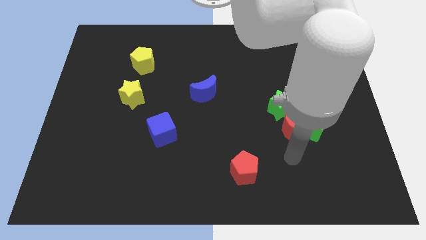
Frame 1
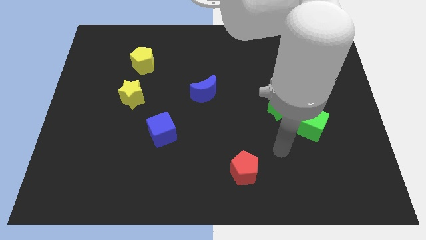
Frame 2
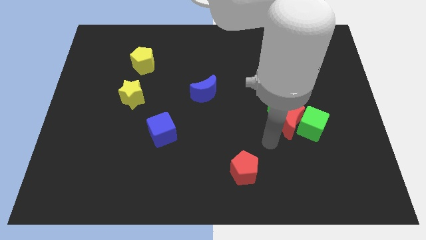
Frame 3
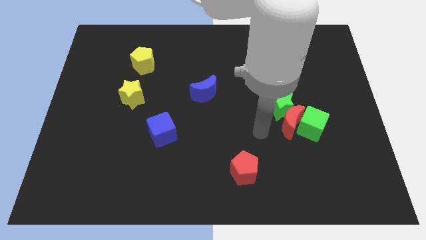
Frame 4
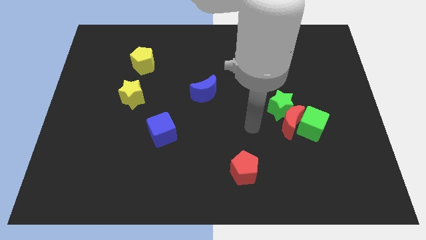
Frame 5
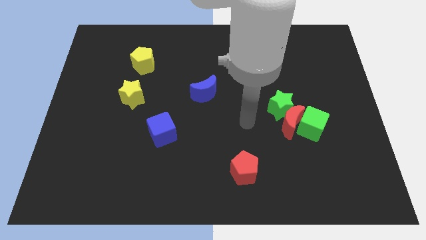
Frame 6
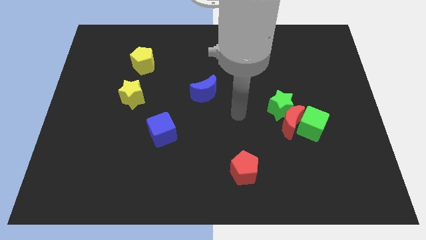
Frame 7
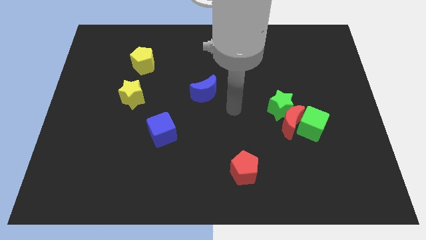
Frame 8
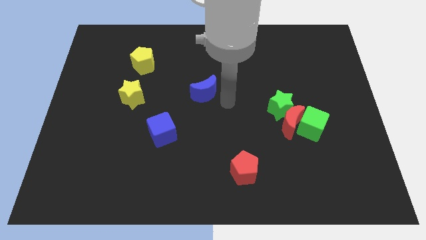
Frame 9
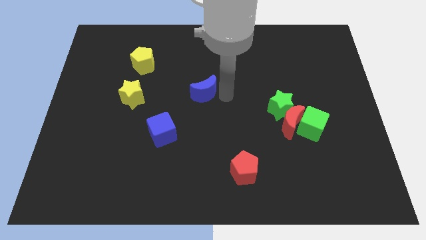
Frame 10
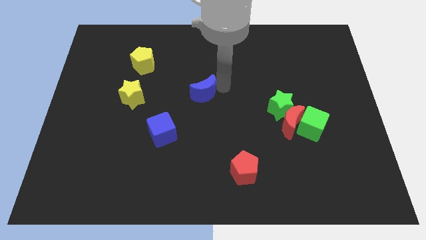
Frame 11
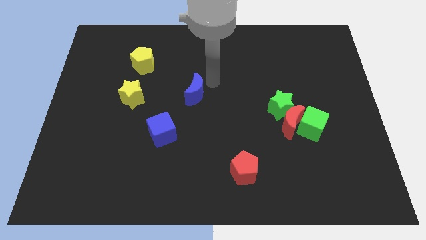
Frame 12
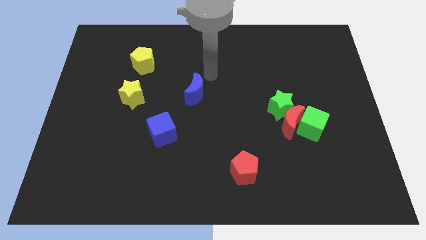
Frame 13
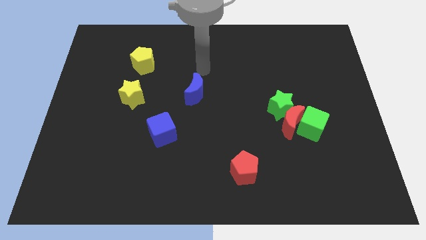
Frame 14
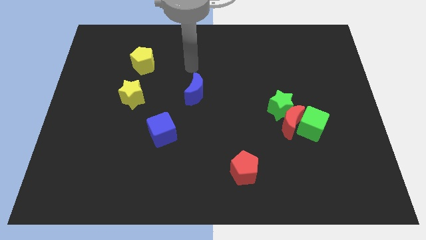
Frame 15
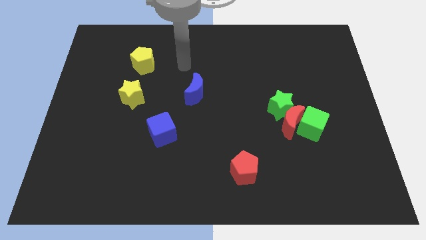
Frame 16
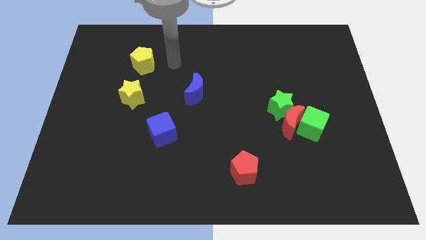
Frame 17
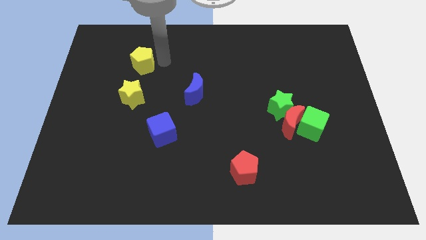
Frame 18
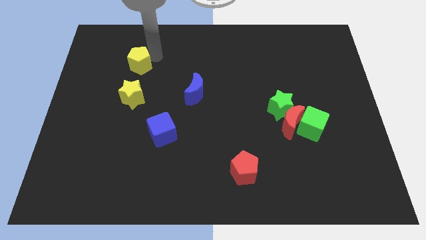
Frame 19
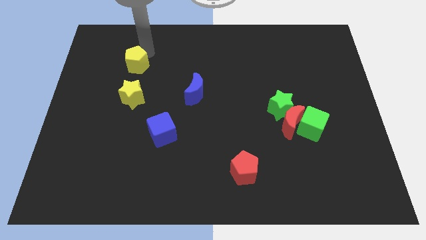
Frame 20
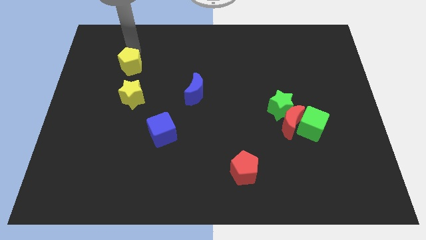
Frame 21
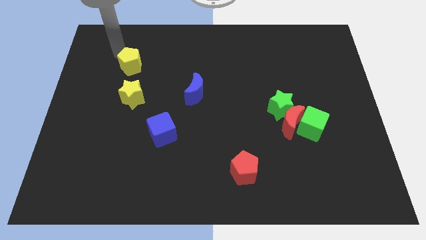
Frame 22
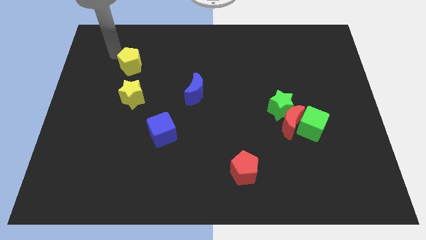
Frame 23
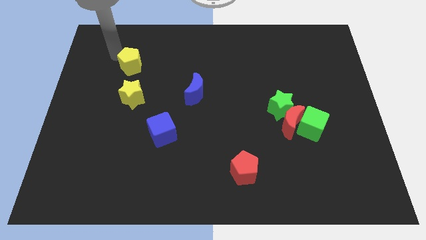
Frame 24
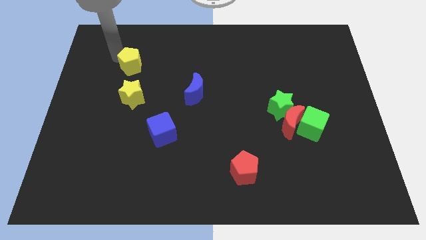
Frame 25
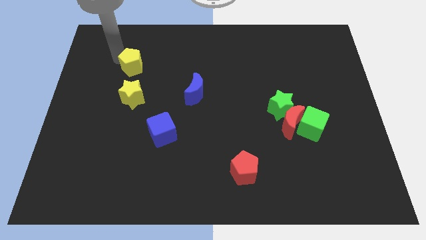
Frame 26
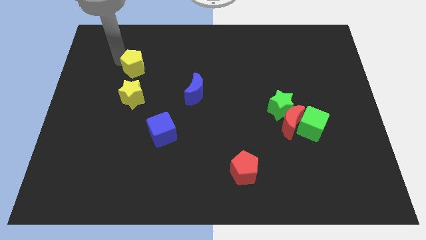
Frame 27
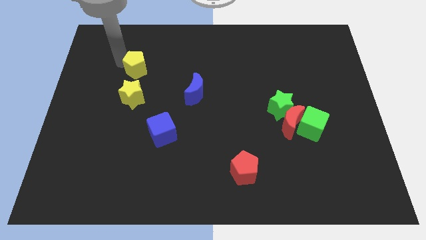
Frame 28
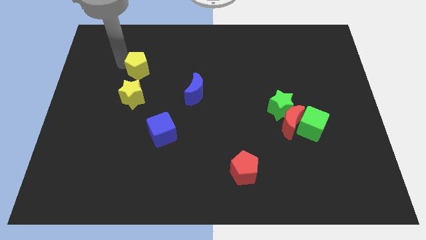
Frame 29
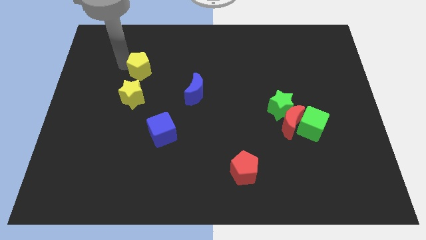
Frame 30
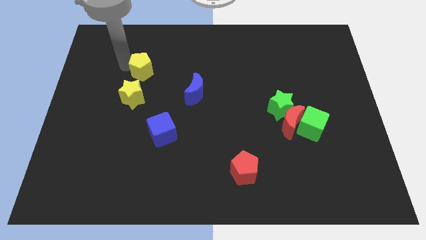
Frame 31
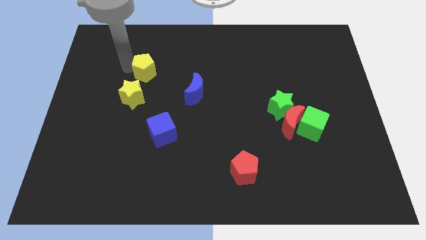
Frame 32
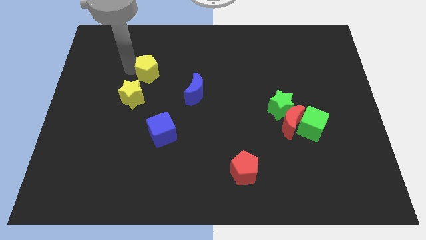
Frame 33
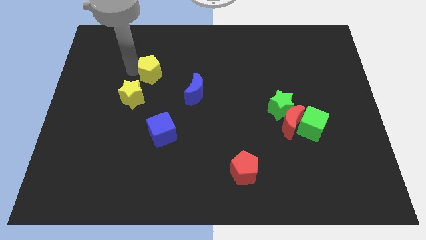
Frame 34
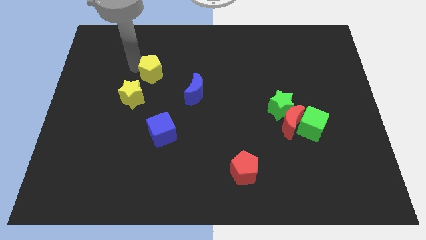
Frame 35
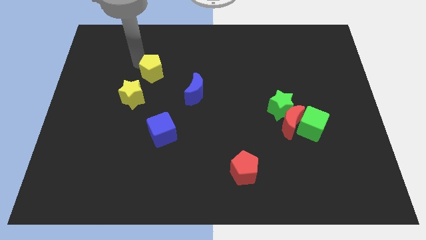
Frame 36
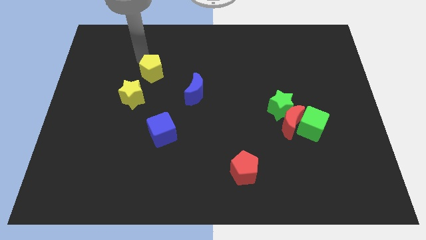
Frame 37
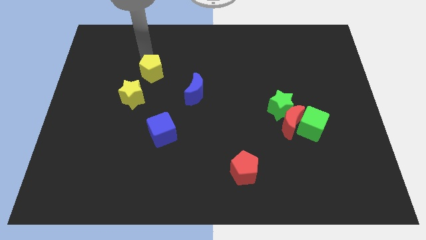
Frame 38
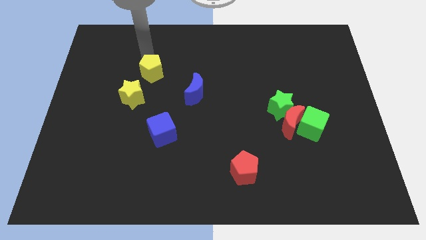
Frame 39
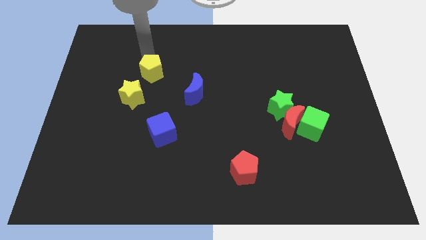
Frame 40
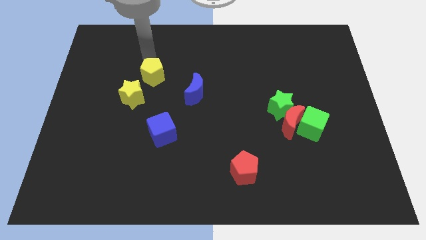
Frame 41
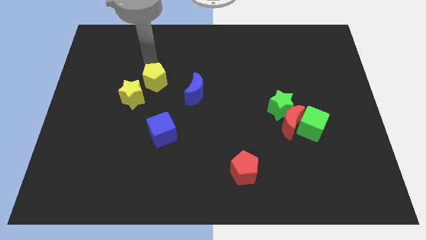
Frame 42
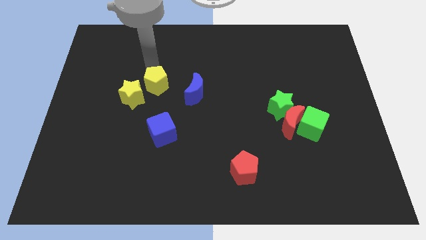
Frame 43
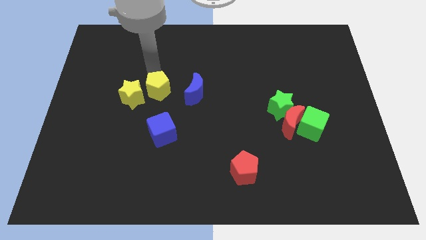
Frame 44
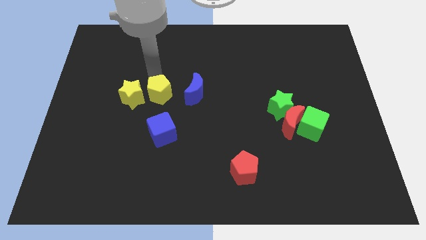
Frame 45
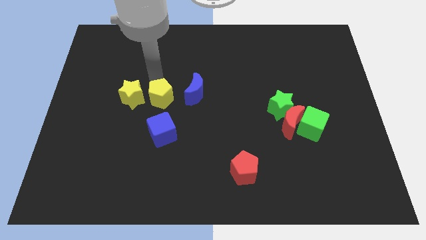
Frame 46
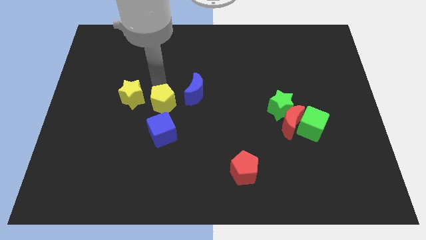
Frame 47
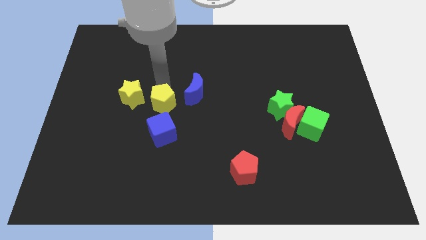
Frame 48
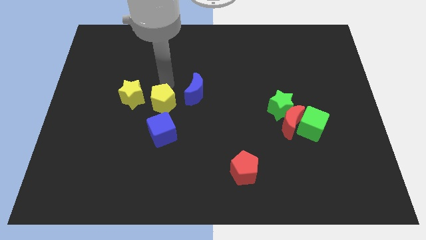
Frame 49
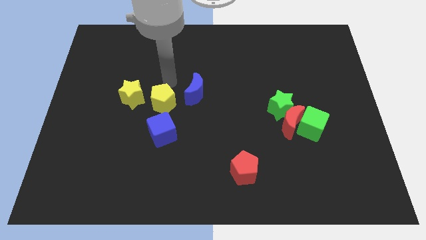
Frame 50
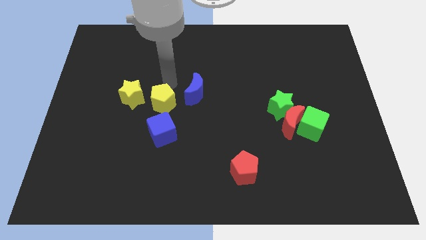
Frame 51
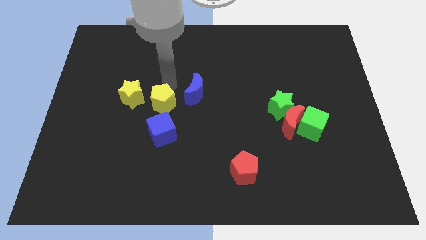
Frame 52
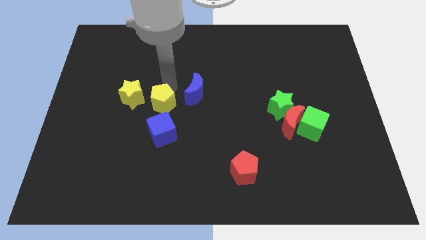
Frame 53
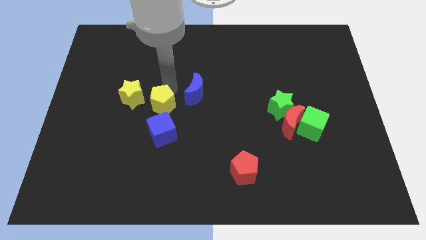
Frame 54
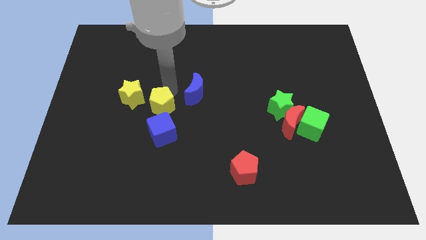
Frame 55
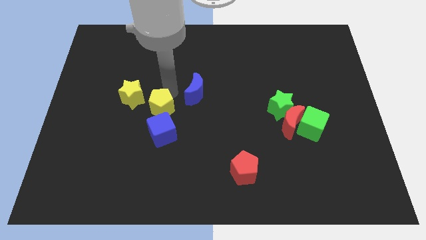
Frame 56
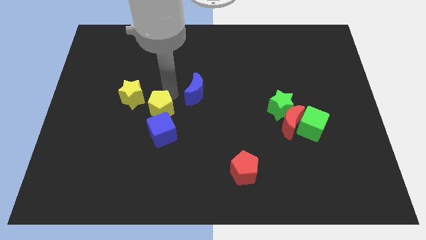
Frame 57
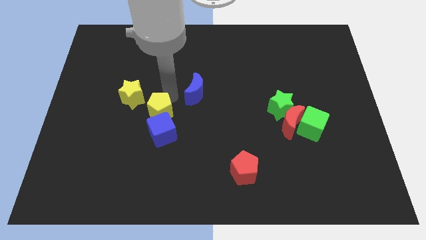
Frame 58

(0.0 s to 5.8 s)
push the yellow pentagon to the blue cube

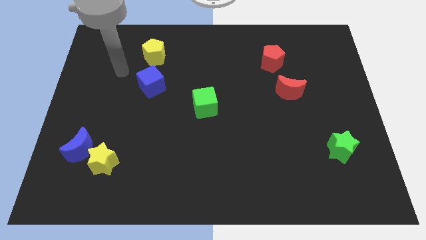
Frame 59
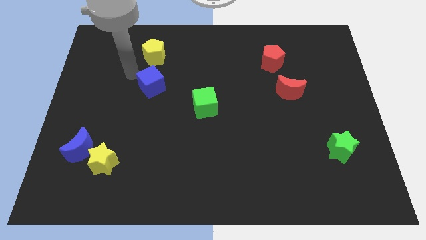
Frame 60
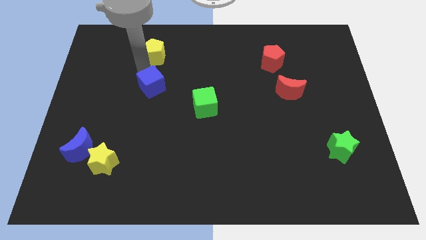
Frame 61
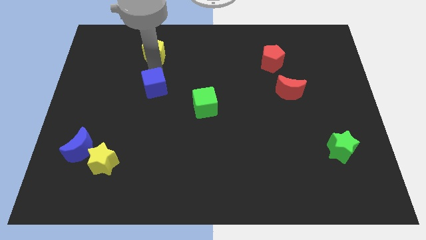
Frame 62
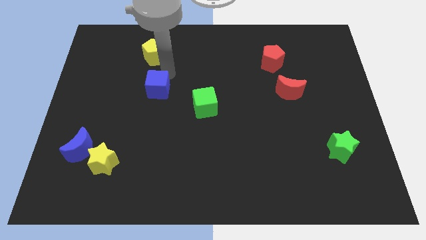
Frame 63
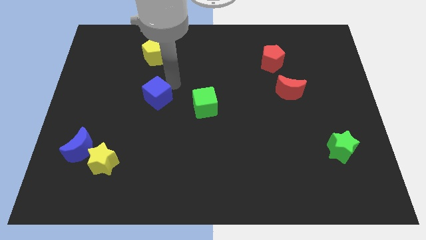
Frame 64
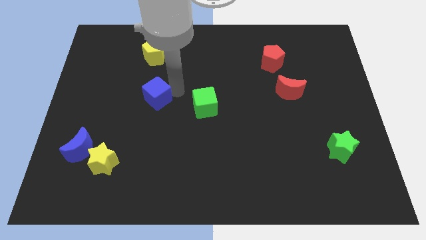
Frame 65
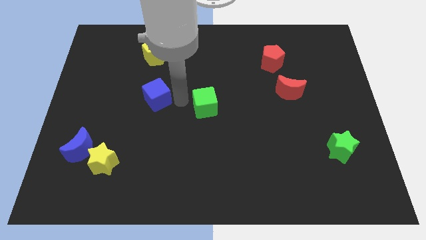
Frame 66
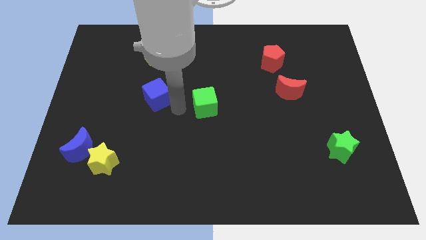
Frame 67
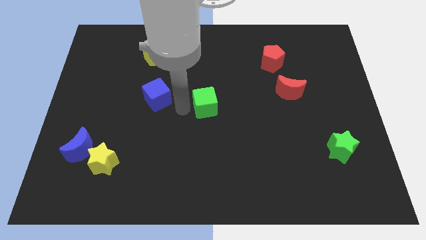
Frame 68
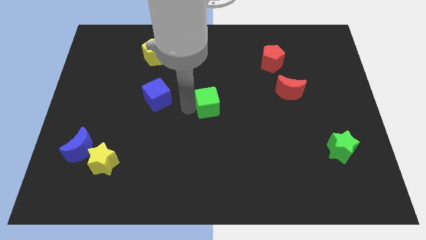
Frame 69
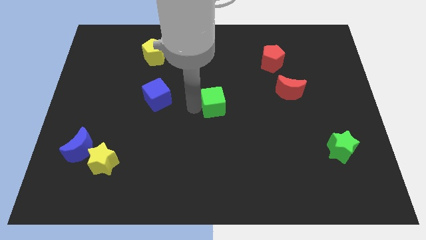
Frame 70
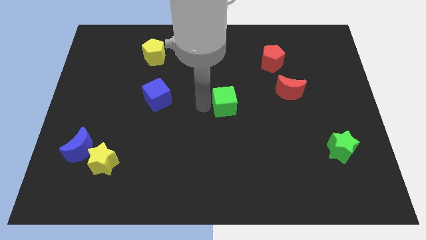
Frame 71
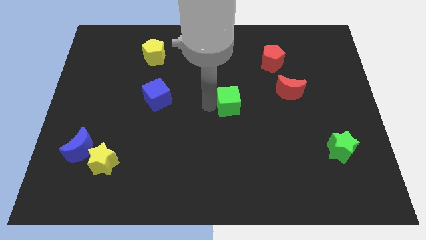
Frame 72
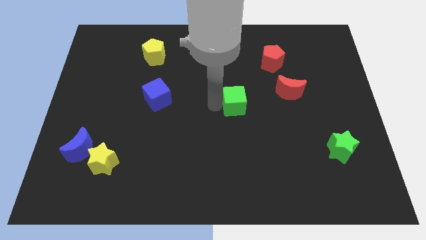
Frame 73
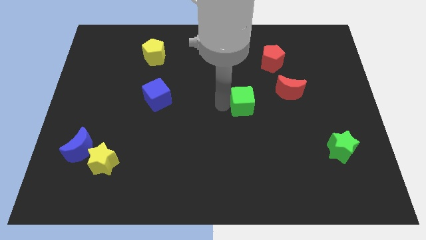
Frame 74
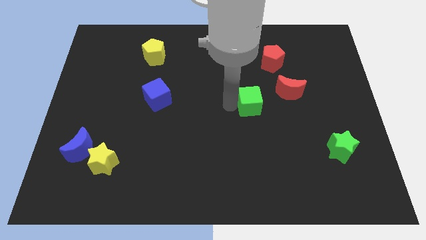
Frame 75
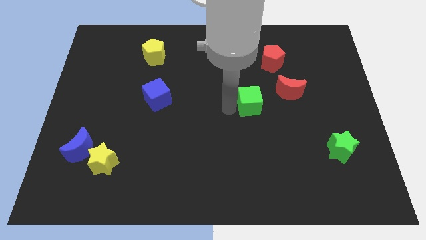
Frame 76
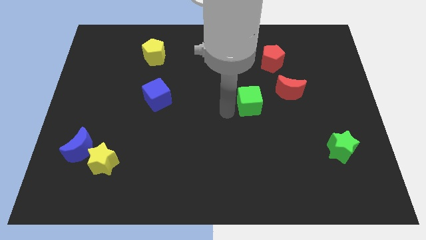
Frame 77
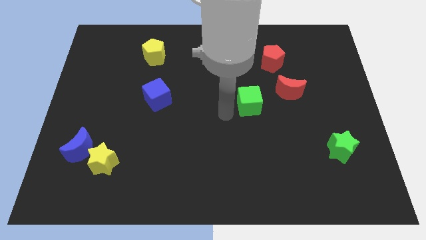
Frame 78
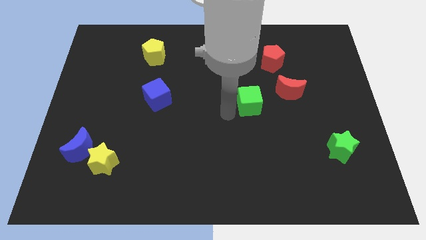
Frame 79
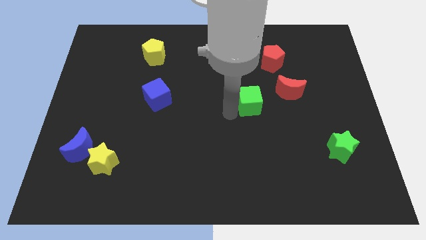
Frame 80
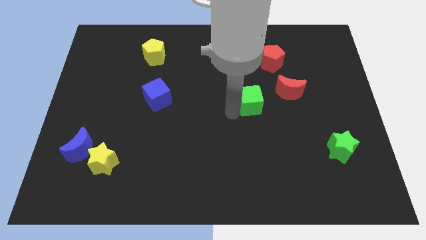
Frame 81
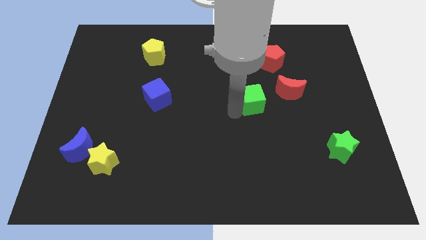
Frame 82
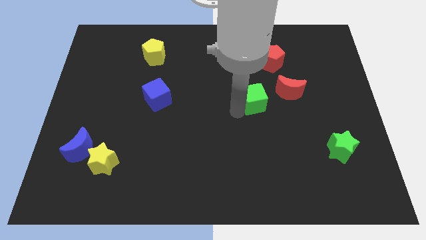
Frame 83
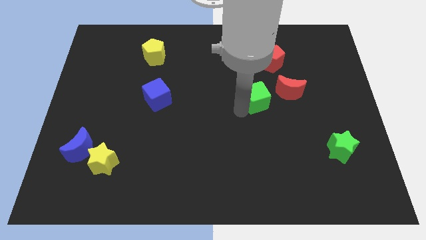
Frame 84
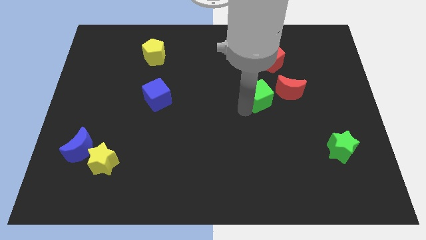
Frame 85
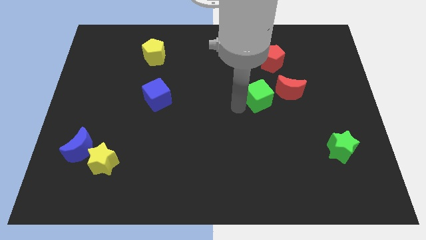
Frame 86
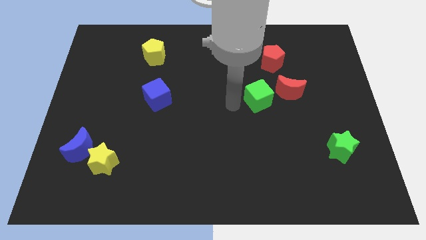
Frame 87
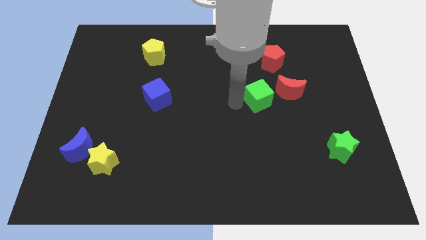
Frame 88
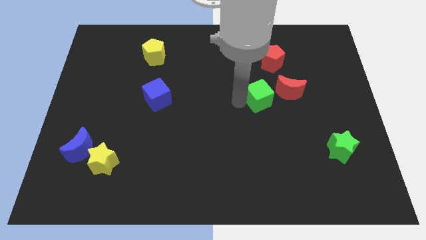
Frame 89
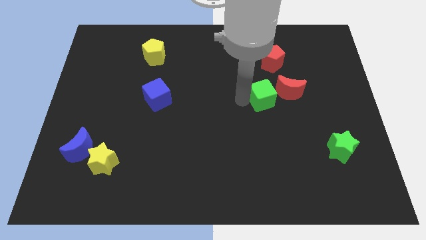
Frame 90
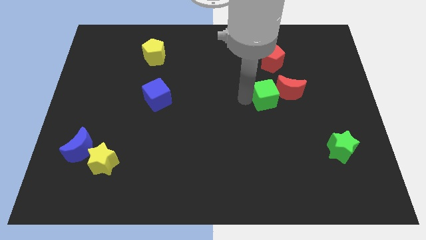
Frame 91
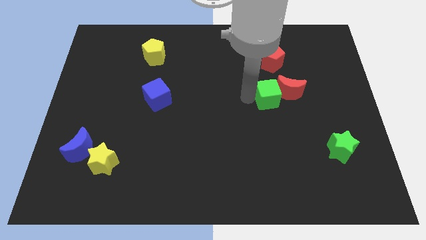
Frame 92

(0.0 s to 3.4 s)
slide the green cube towards the red moon
